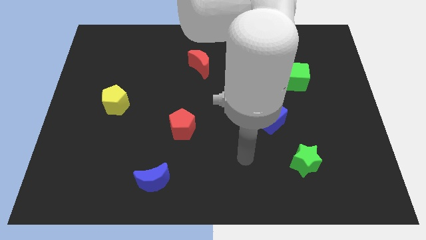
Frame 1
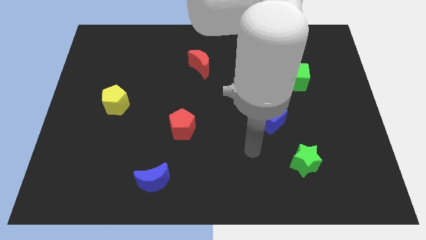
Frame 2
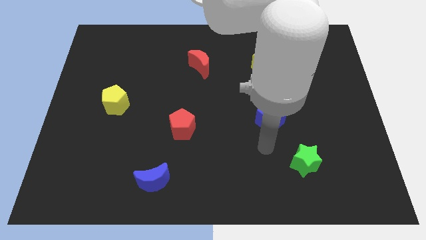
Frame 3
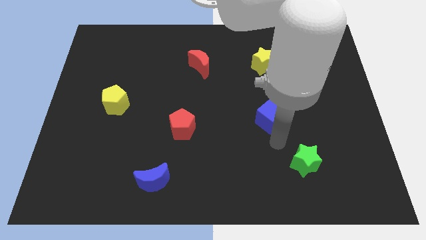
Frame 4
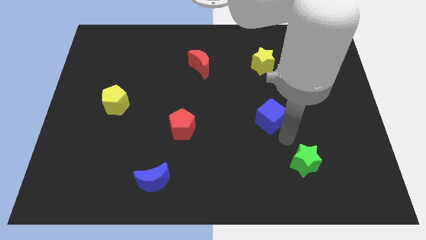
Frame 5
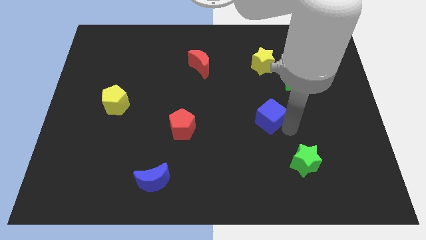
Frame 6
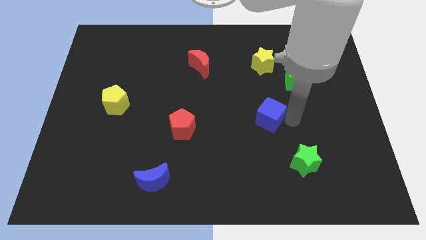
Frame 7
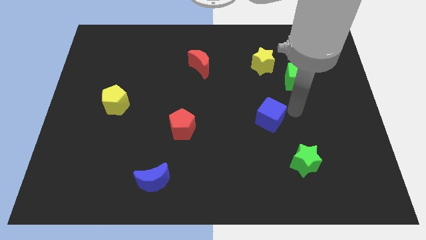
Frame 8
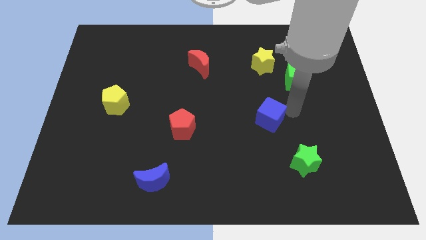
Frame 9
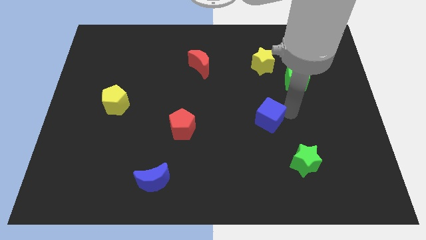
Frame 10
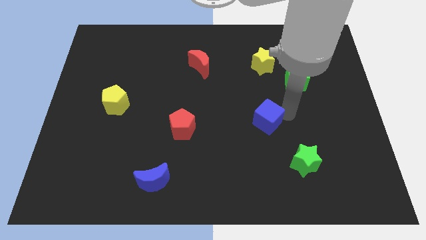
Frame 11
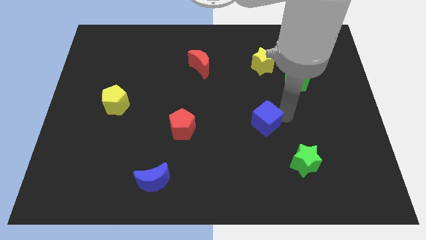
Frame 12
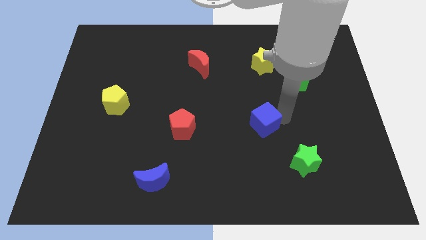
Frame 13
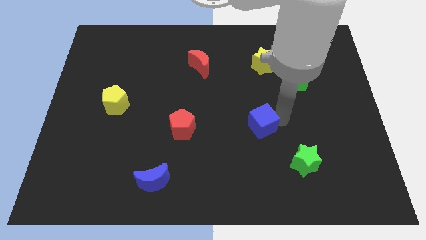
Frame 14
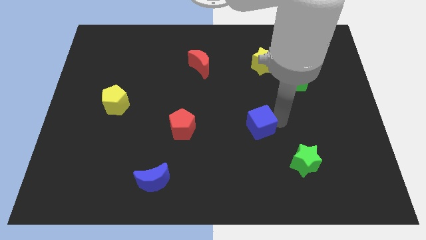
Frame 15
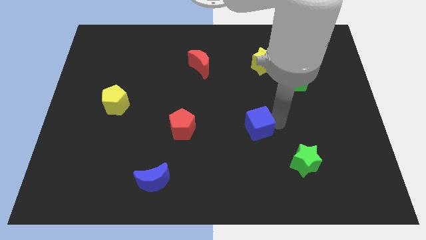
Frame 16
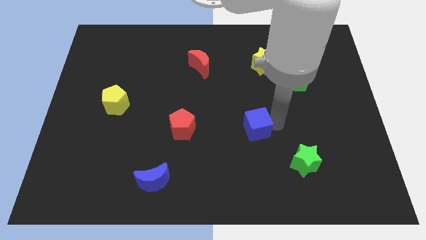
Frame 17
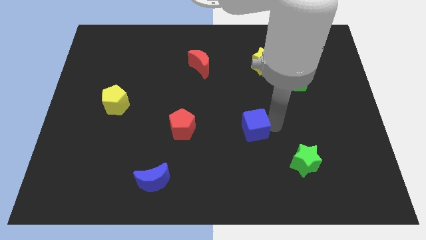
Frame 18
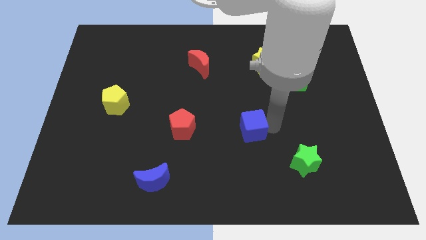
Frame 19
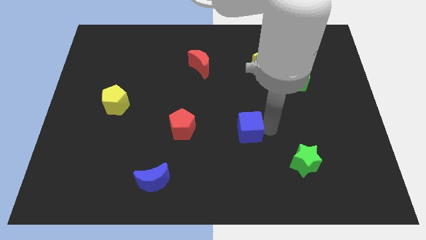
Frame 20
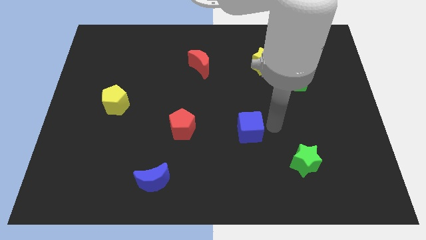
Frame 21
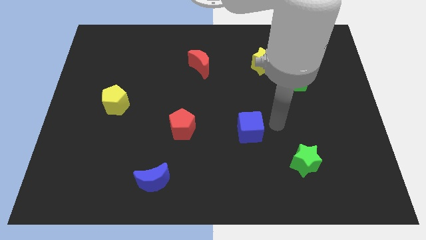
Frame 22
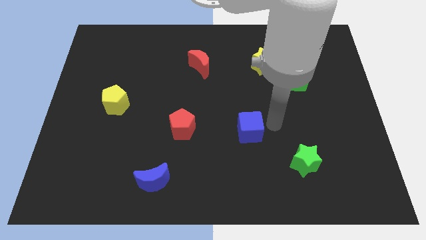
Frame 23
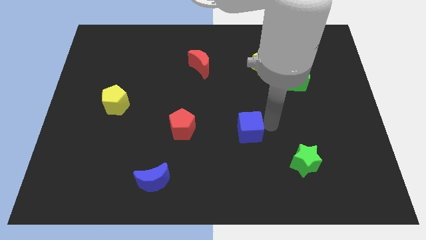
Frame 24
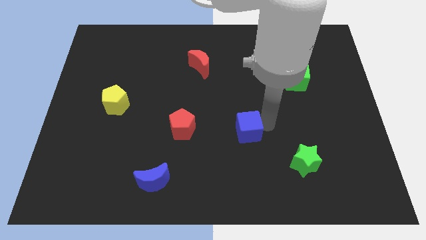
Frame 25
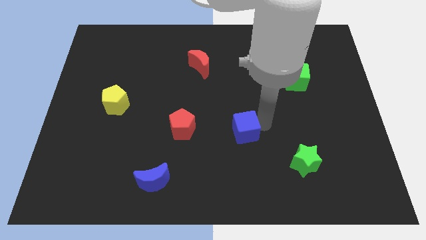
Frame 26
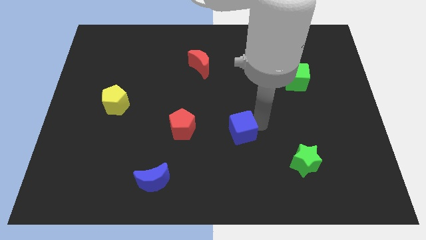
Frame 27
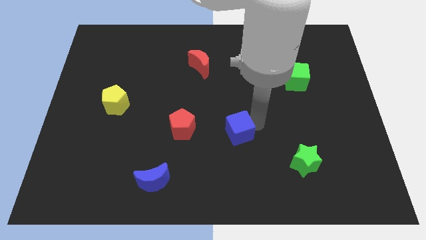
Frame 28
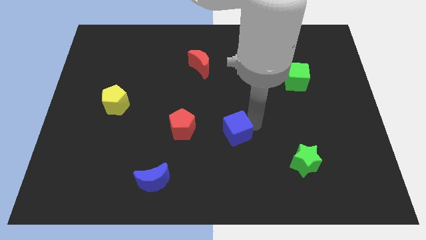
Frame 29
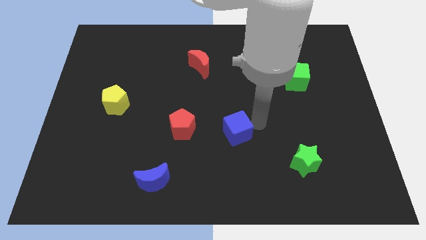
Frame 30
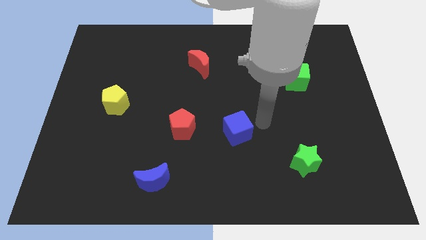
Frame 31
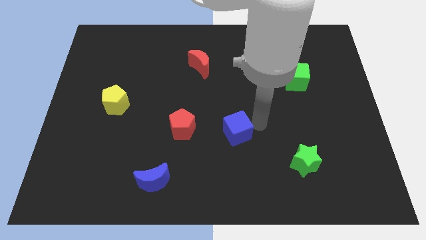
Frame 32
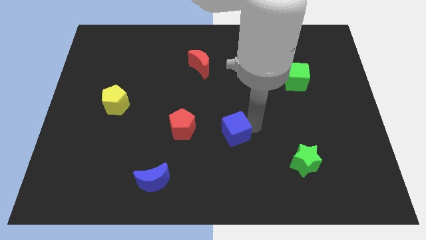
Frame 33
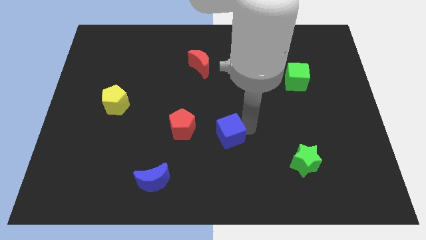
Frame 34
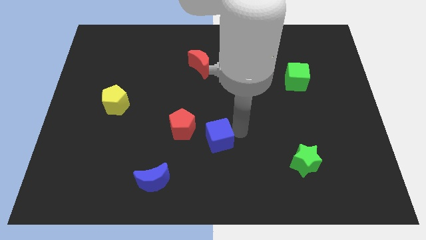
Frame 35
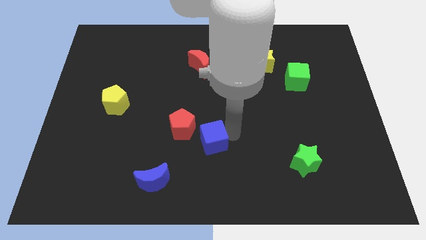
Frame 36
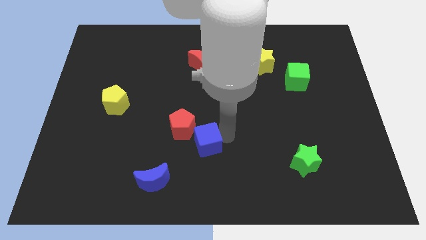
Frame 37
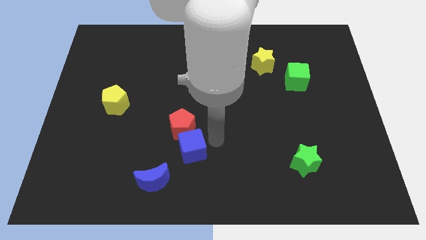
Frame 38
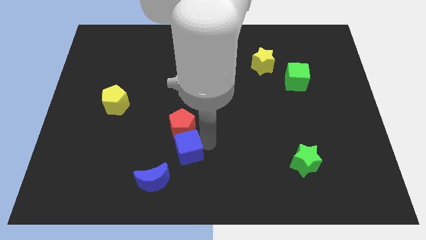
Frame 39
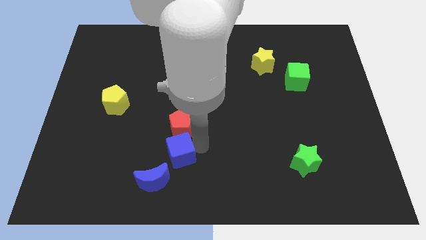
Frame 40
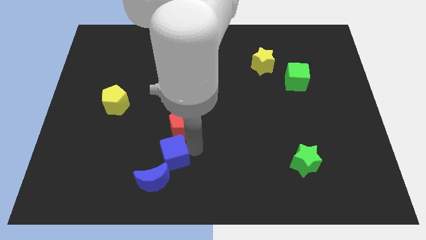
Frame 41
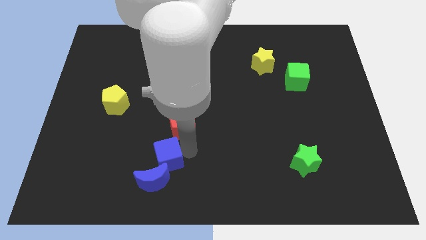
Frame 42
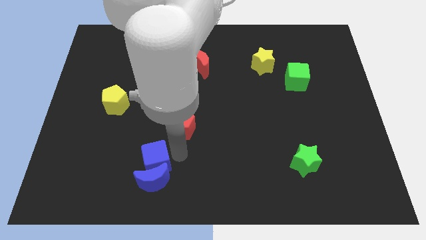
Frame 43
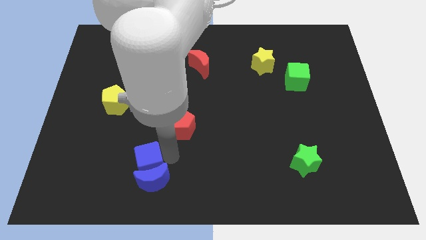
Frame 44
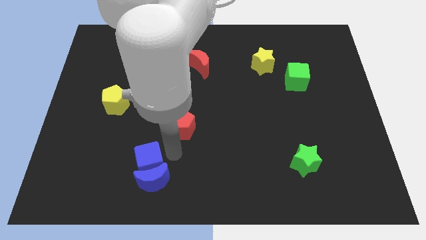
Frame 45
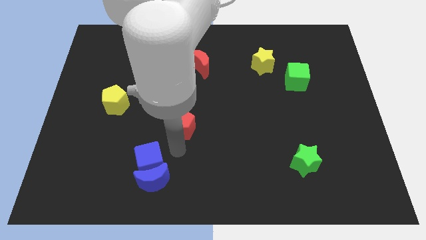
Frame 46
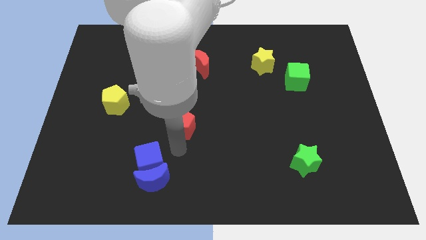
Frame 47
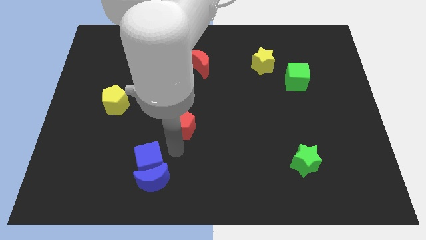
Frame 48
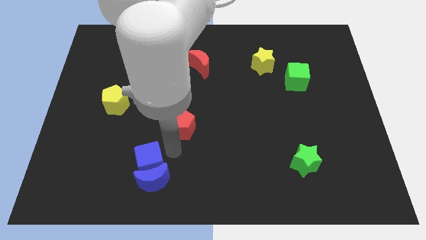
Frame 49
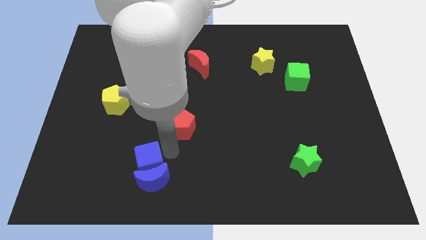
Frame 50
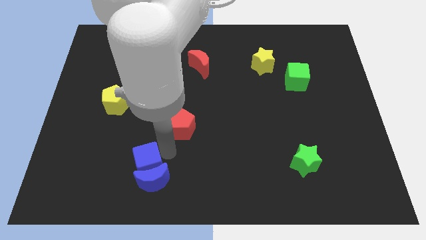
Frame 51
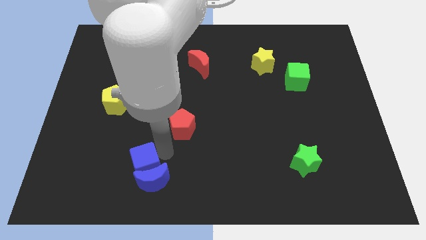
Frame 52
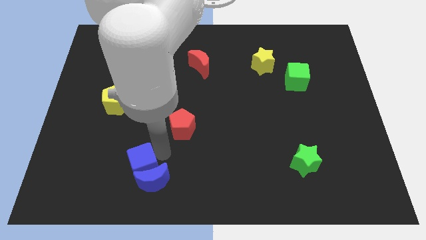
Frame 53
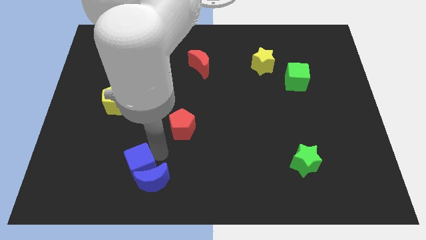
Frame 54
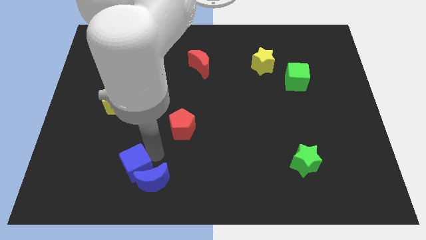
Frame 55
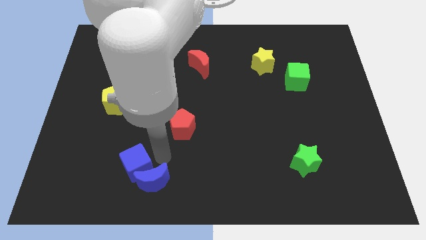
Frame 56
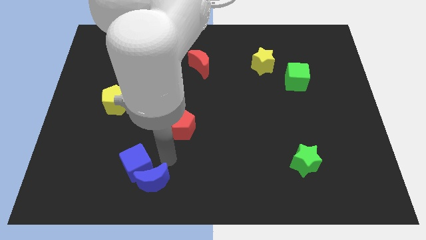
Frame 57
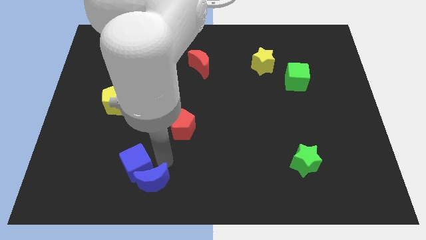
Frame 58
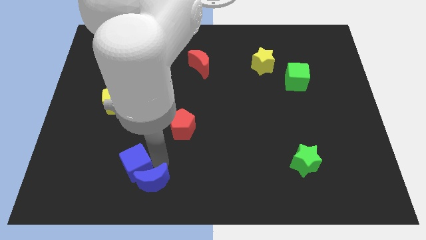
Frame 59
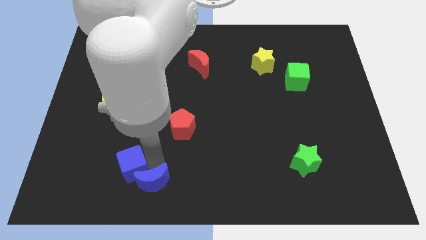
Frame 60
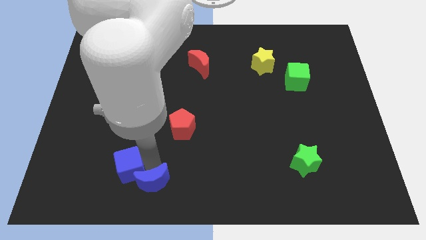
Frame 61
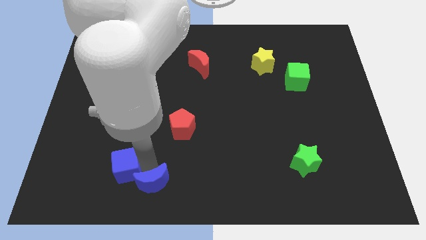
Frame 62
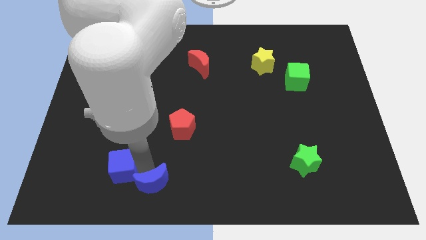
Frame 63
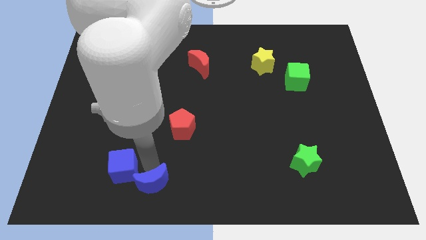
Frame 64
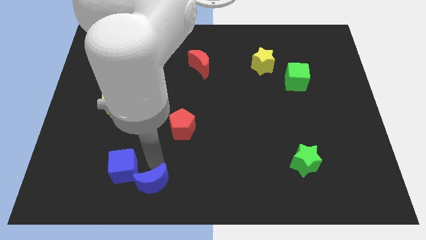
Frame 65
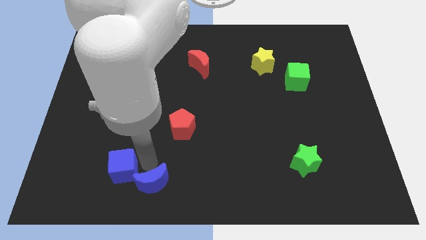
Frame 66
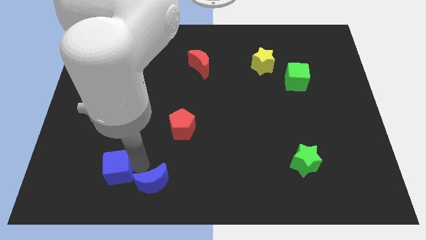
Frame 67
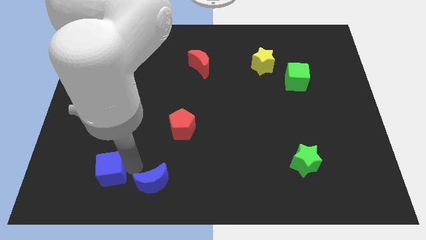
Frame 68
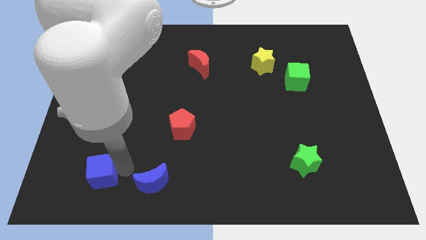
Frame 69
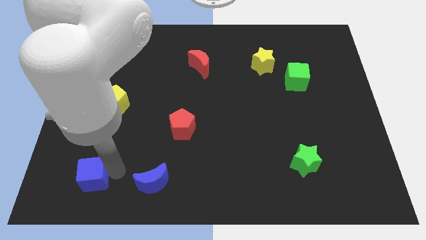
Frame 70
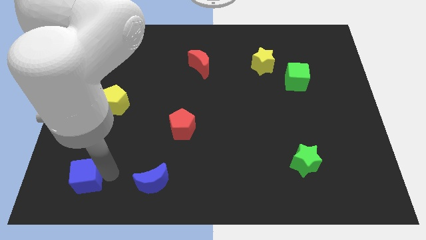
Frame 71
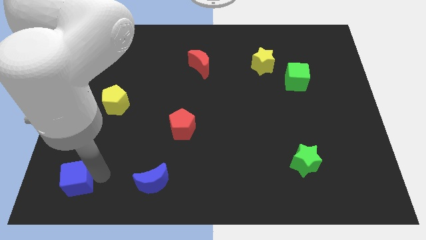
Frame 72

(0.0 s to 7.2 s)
push the blue cube to the bottom left corner
